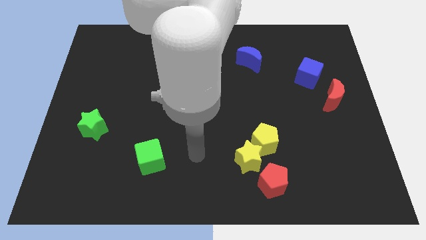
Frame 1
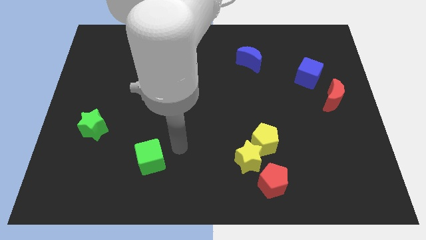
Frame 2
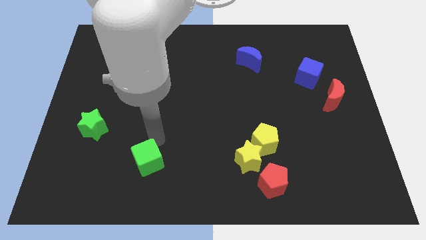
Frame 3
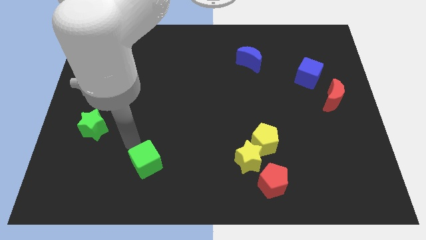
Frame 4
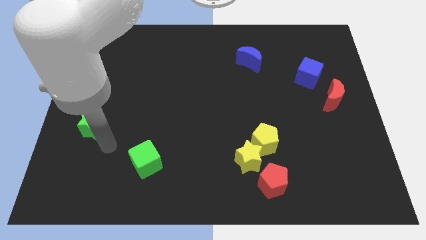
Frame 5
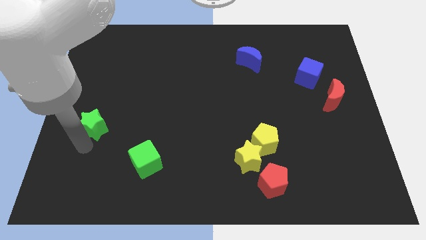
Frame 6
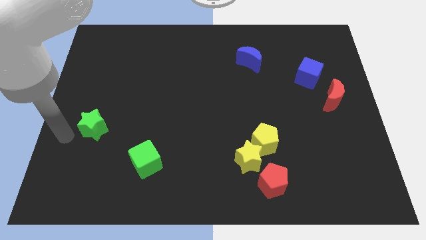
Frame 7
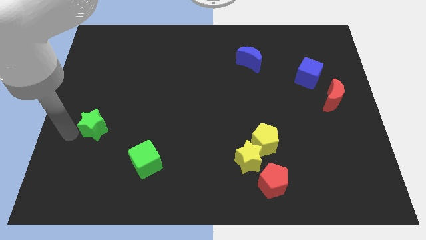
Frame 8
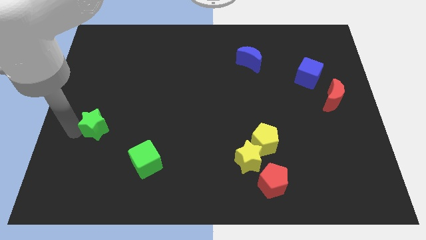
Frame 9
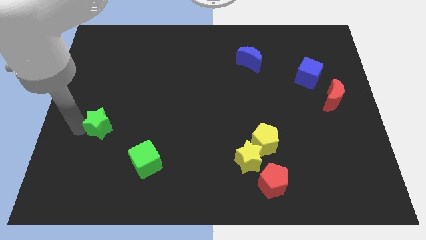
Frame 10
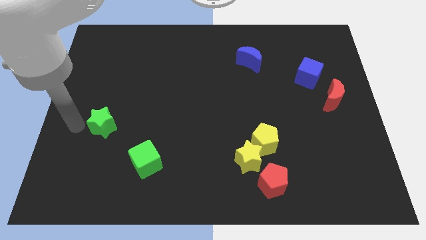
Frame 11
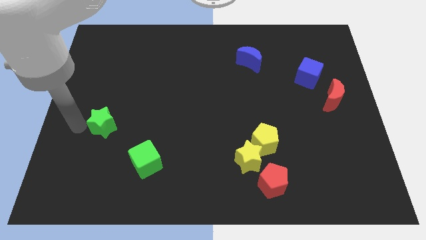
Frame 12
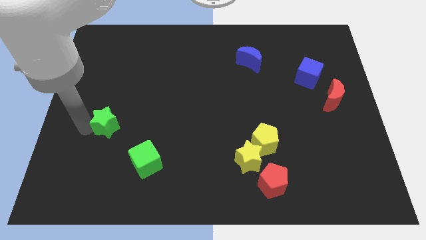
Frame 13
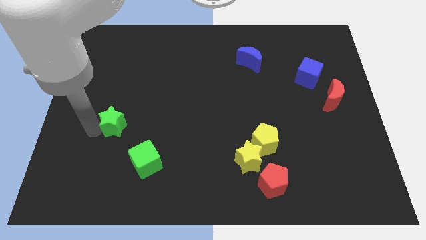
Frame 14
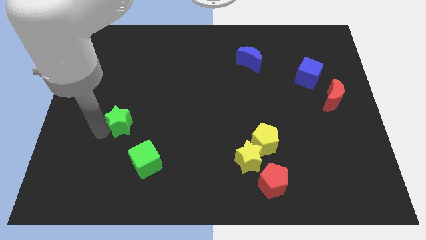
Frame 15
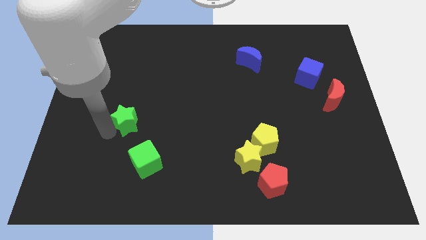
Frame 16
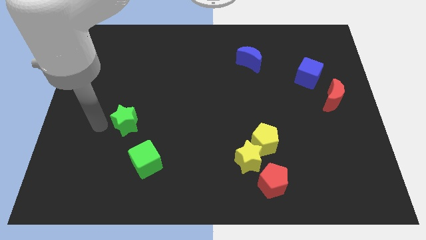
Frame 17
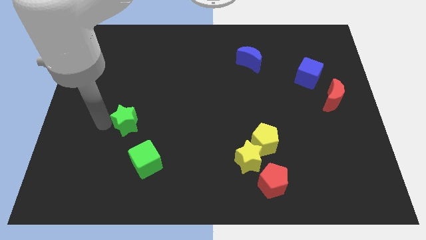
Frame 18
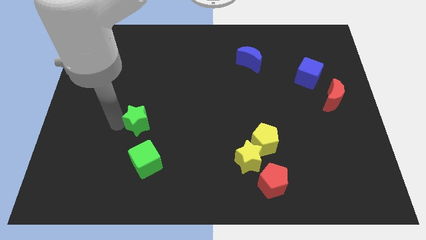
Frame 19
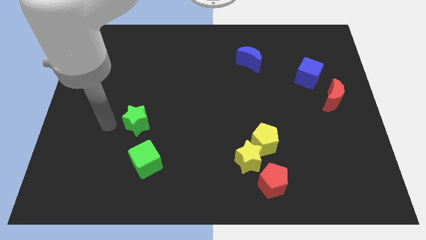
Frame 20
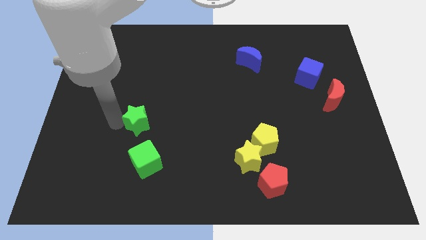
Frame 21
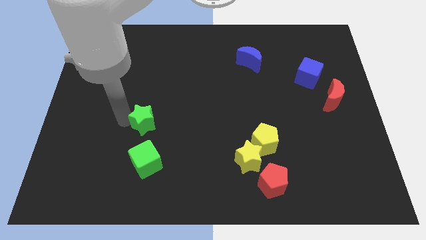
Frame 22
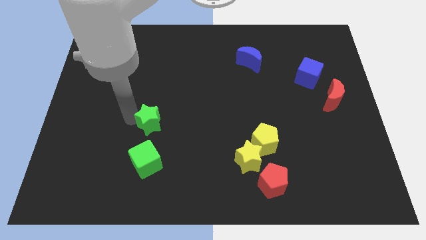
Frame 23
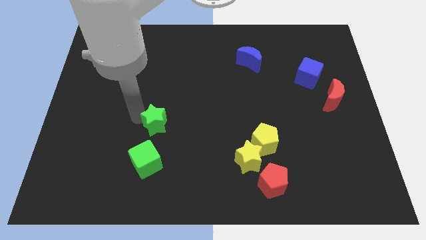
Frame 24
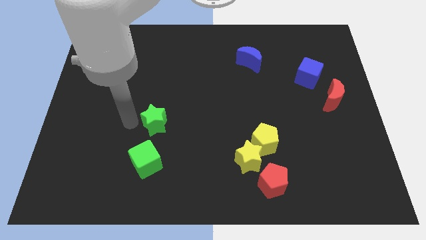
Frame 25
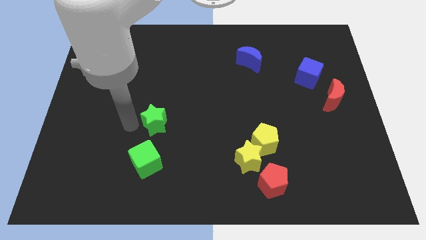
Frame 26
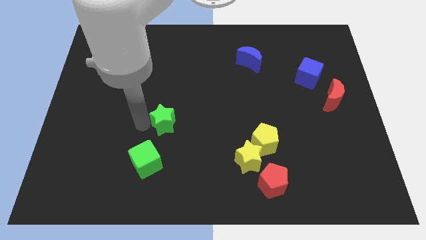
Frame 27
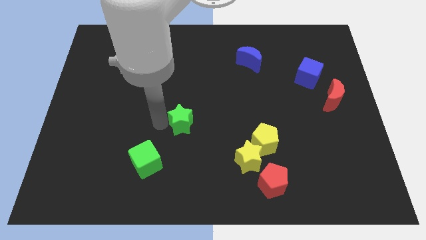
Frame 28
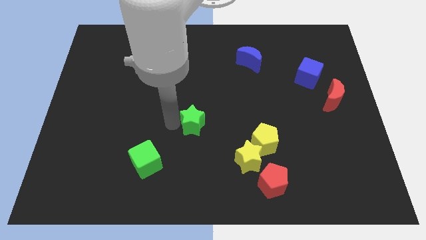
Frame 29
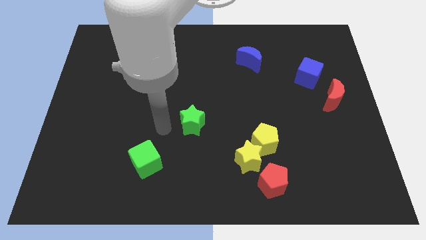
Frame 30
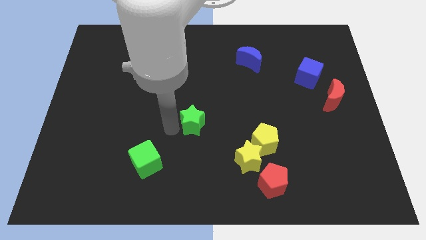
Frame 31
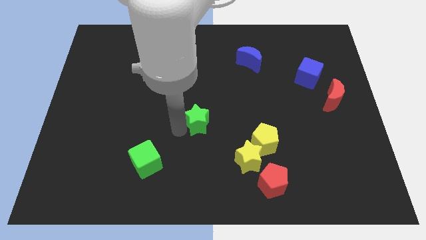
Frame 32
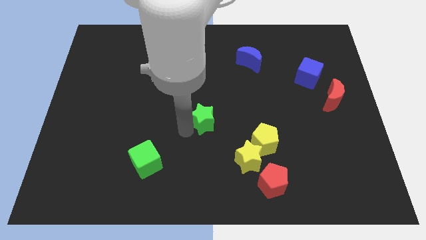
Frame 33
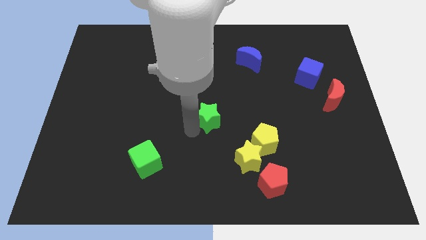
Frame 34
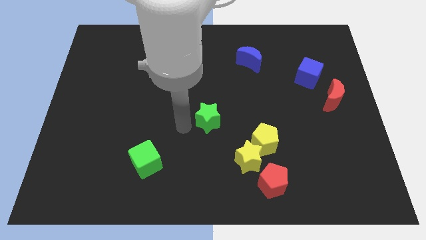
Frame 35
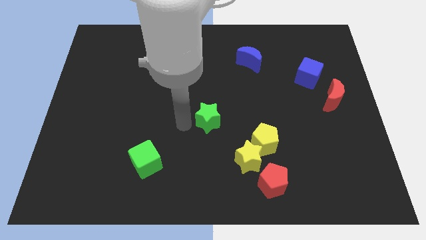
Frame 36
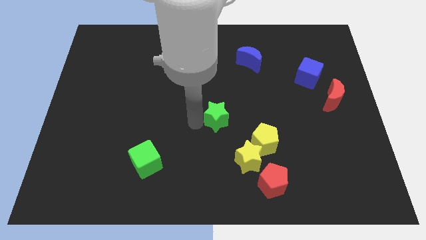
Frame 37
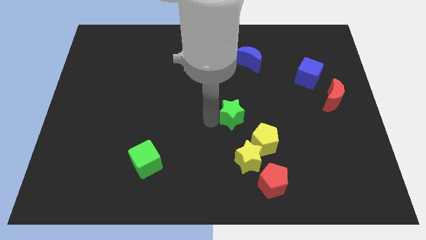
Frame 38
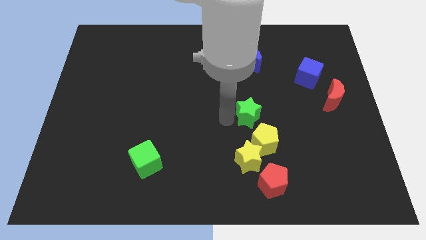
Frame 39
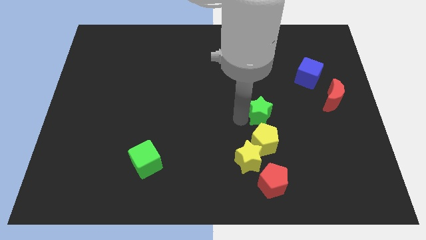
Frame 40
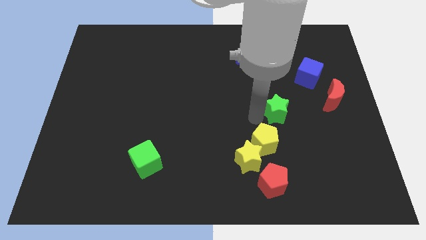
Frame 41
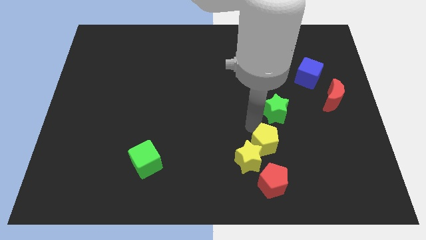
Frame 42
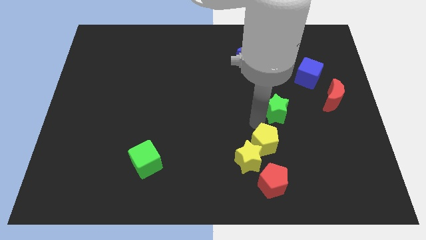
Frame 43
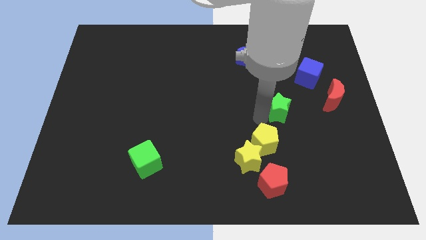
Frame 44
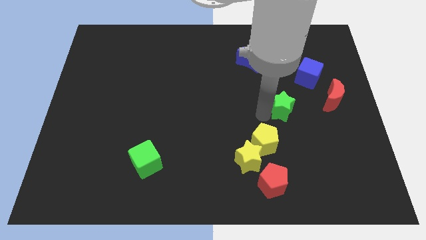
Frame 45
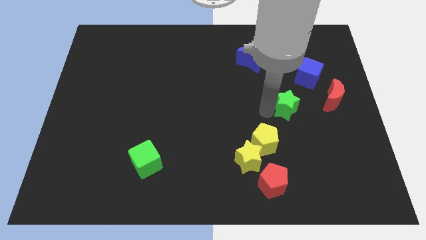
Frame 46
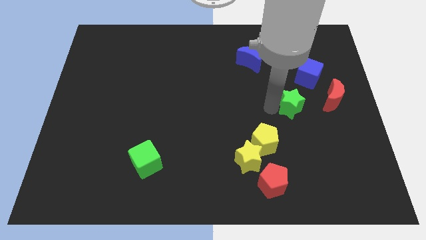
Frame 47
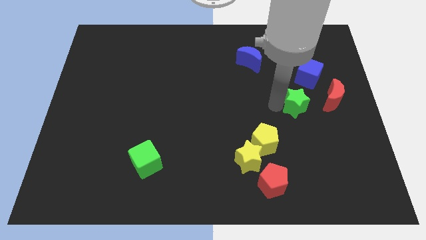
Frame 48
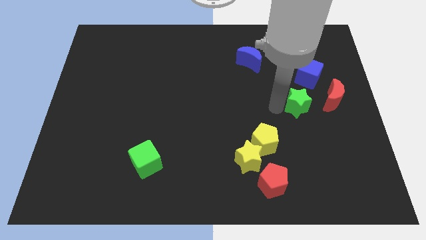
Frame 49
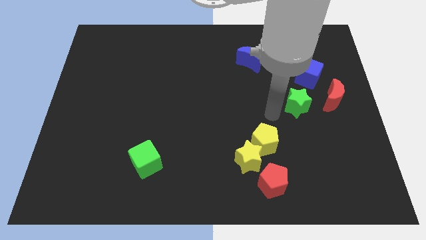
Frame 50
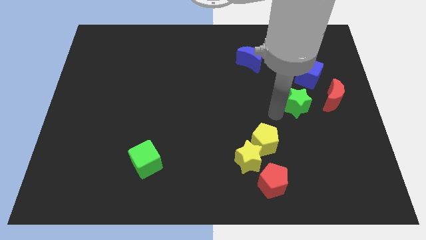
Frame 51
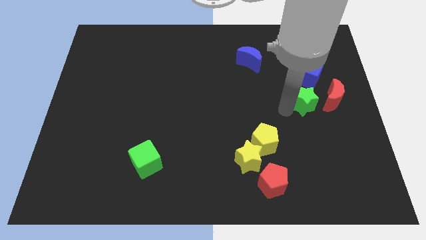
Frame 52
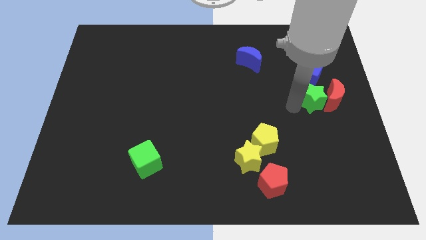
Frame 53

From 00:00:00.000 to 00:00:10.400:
move the green star to the red moon

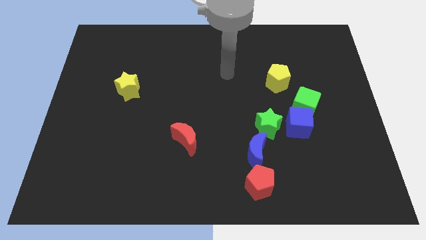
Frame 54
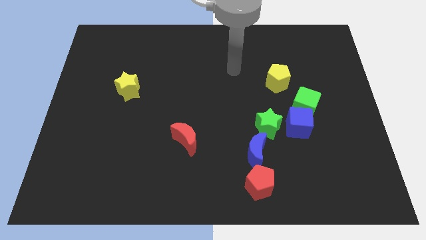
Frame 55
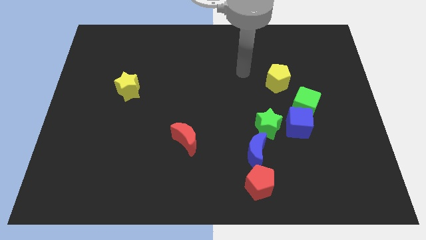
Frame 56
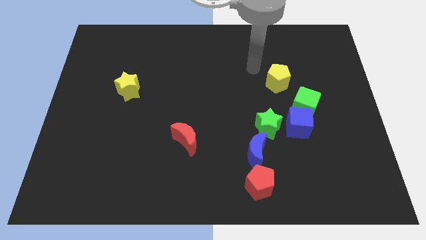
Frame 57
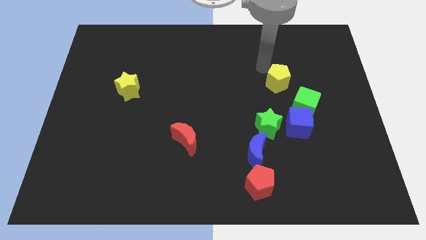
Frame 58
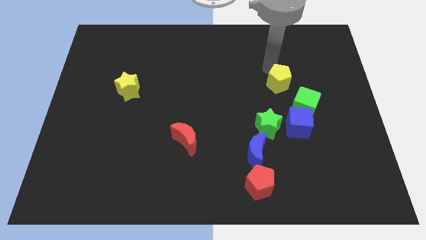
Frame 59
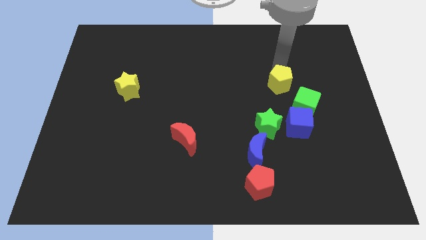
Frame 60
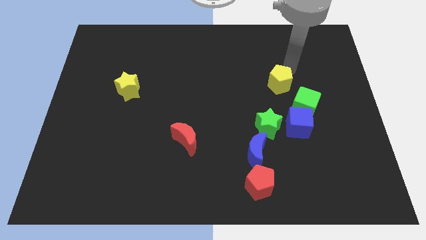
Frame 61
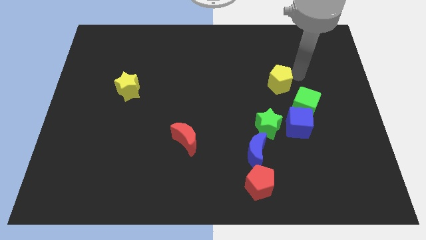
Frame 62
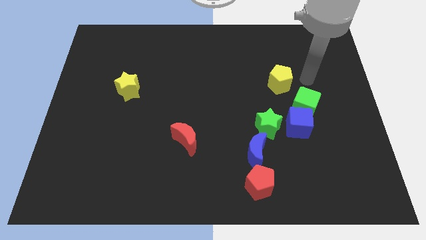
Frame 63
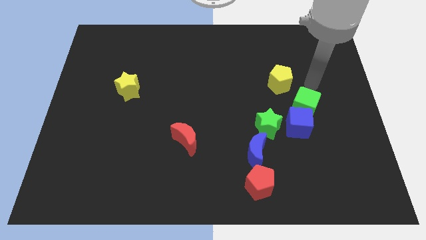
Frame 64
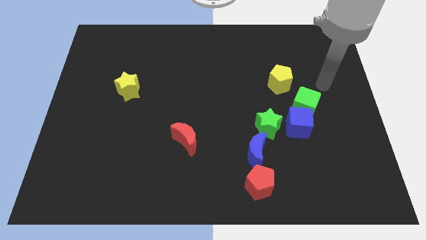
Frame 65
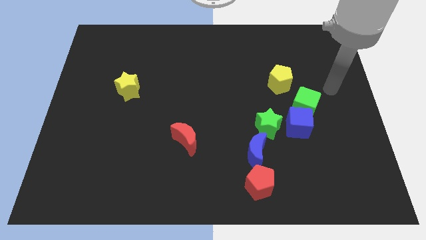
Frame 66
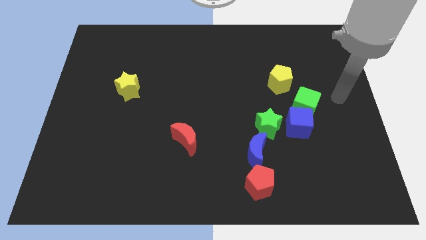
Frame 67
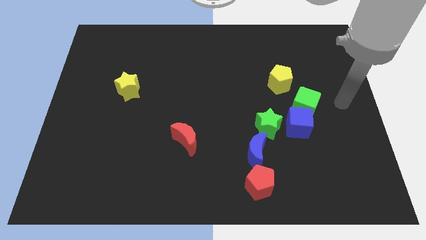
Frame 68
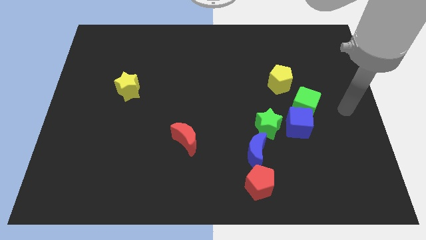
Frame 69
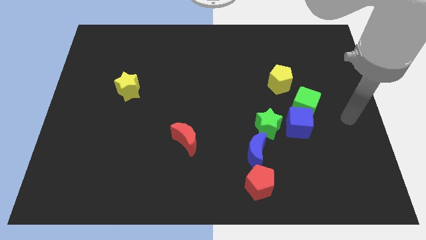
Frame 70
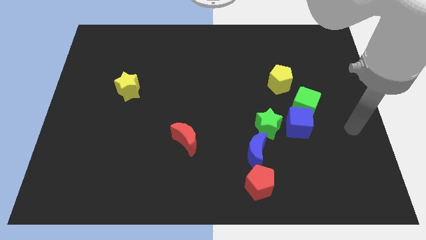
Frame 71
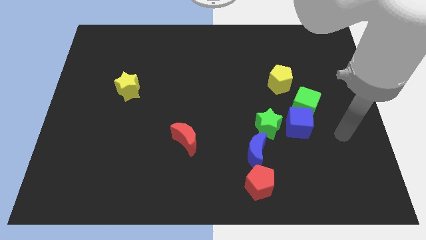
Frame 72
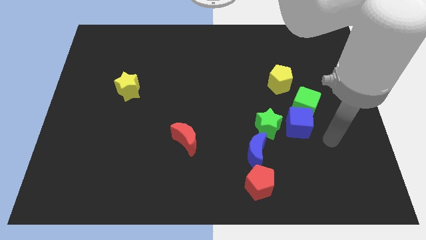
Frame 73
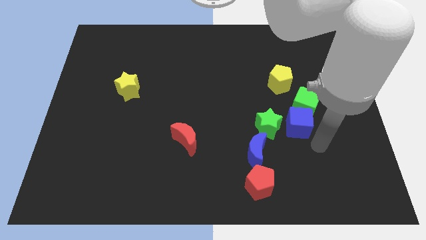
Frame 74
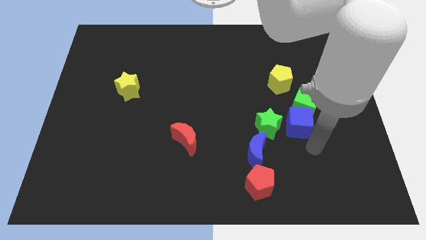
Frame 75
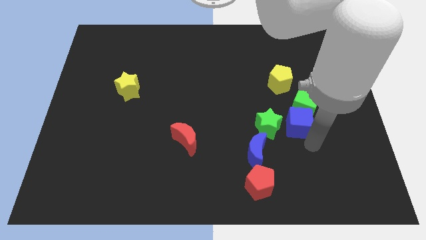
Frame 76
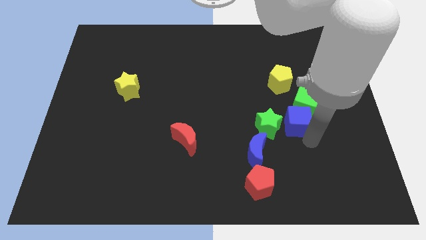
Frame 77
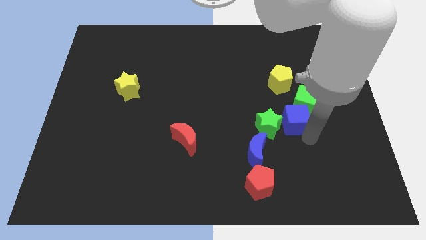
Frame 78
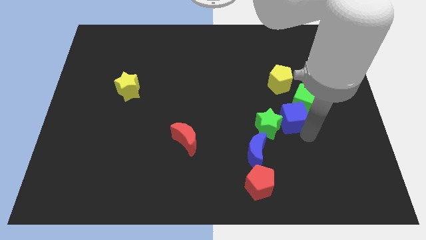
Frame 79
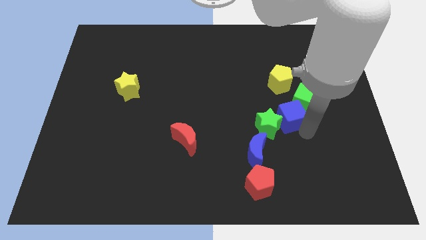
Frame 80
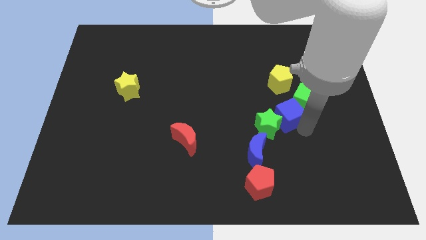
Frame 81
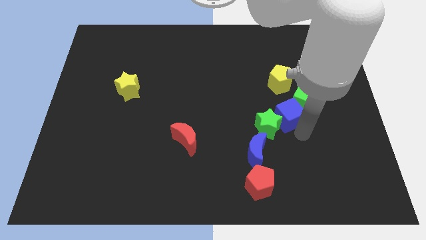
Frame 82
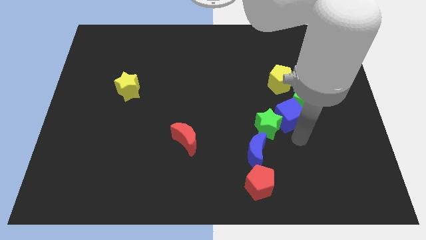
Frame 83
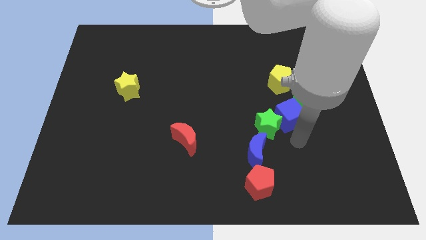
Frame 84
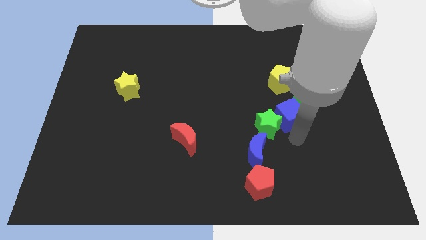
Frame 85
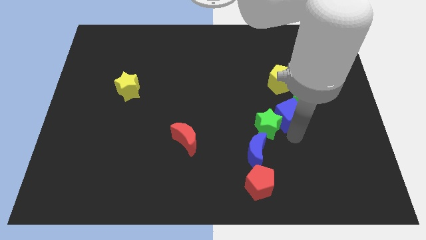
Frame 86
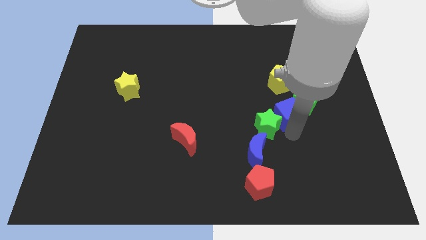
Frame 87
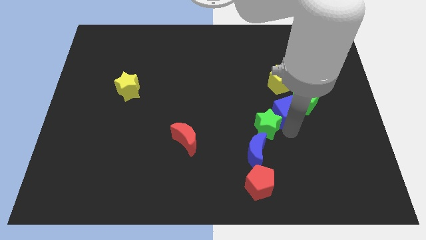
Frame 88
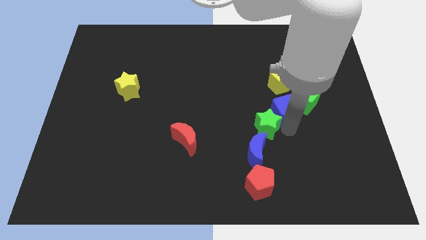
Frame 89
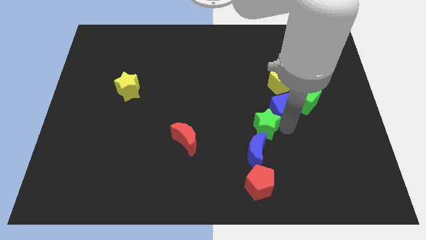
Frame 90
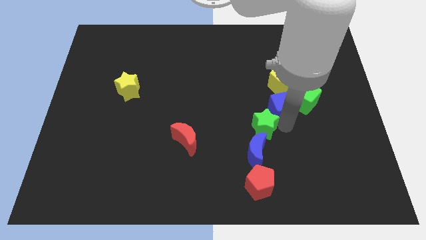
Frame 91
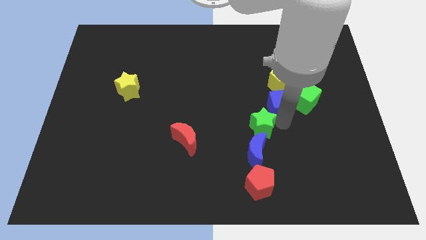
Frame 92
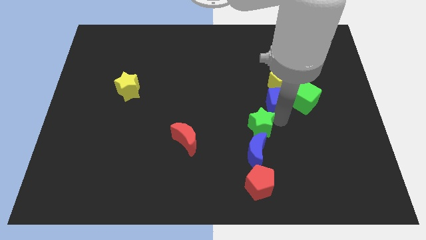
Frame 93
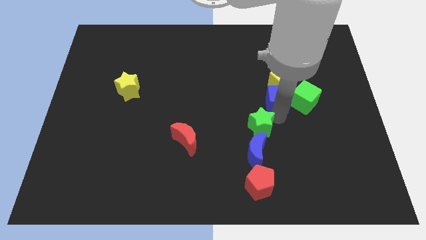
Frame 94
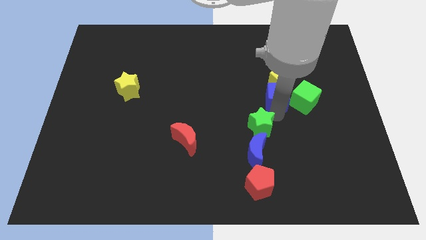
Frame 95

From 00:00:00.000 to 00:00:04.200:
push the blue cube next to the yellow pentagon
